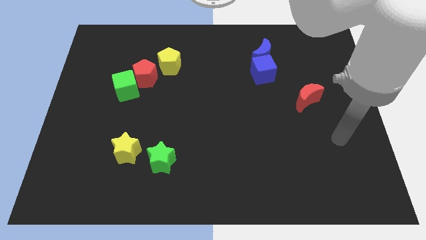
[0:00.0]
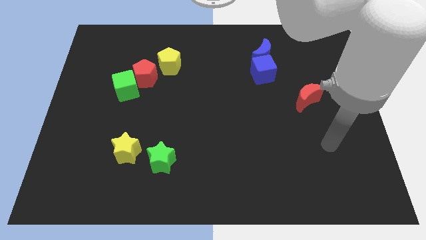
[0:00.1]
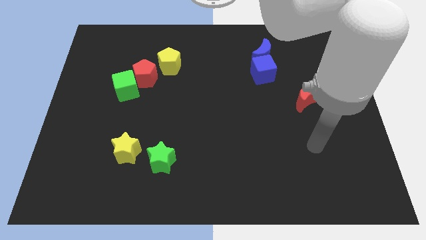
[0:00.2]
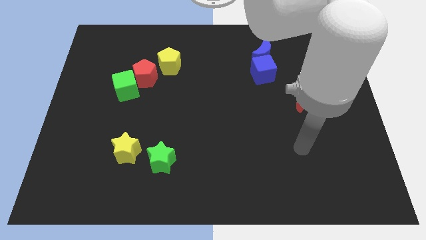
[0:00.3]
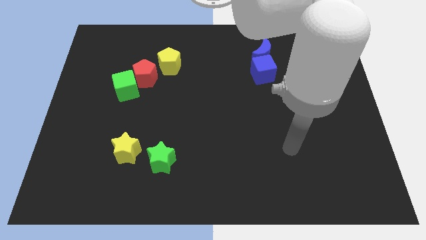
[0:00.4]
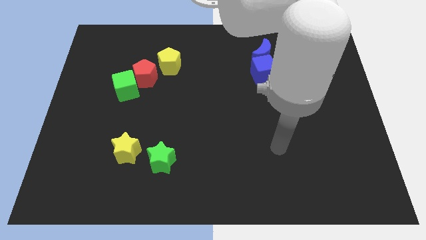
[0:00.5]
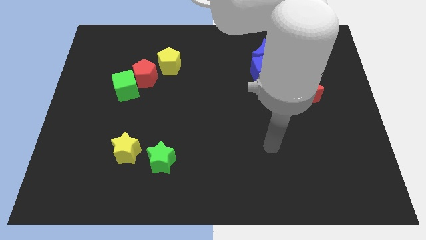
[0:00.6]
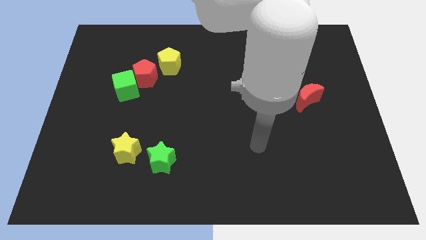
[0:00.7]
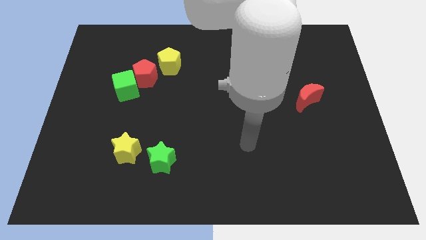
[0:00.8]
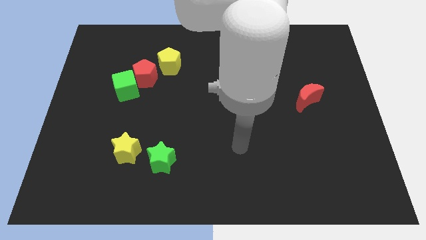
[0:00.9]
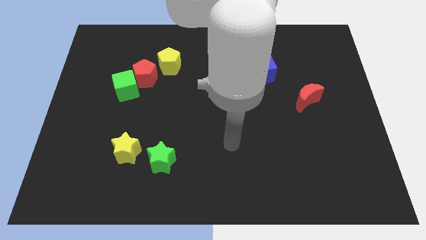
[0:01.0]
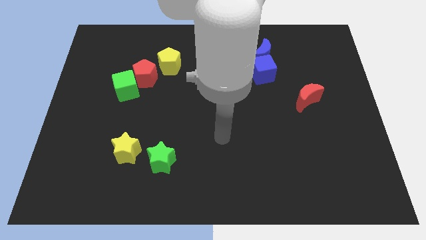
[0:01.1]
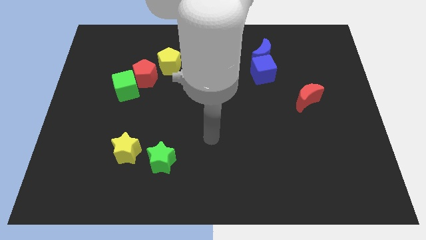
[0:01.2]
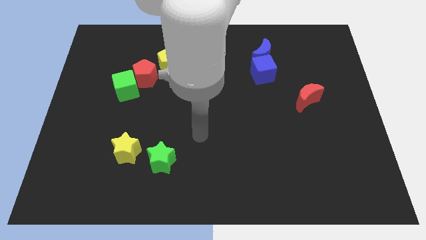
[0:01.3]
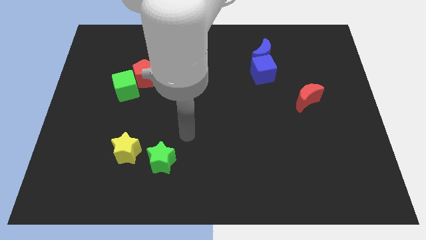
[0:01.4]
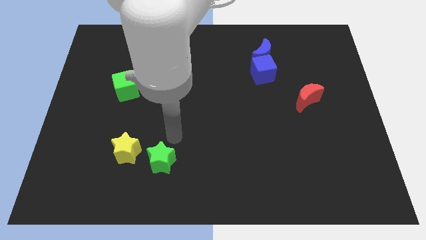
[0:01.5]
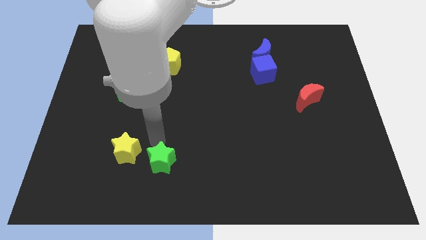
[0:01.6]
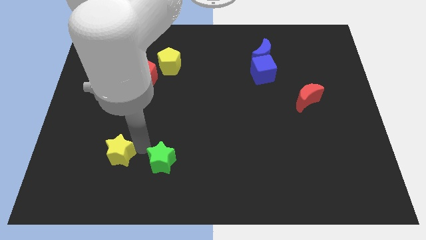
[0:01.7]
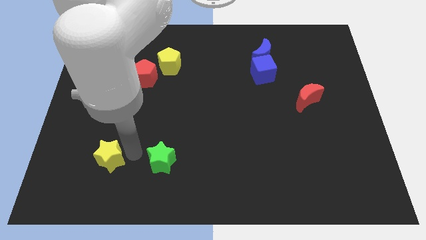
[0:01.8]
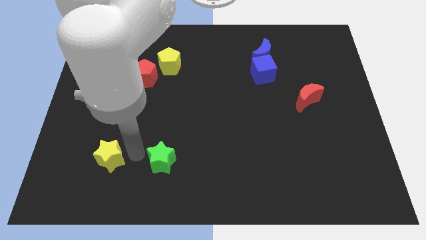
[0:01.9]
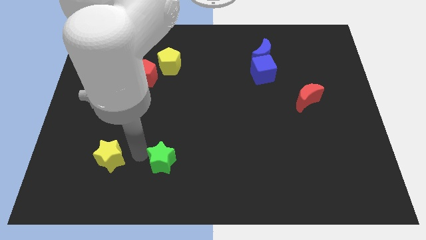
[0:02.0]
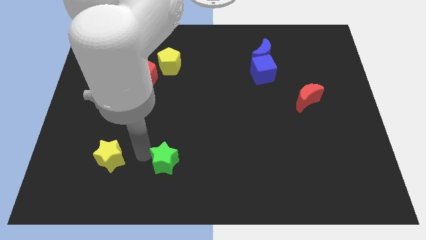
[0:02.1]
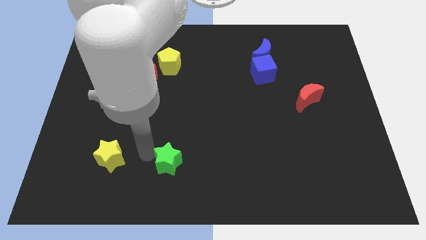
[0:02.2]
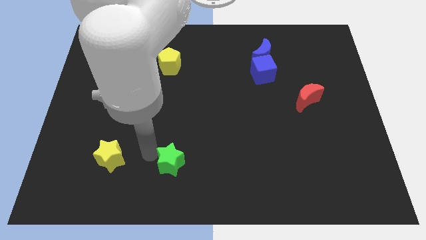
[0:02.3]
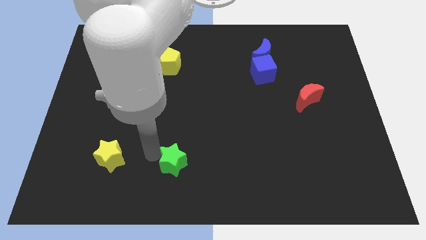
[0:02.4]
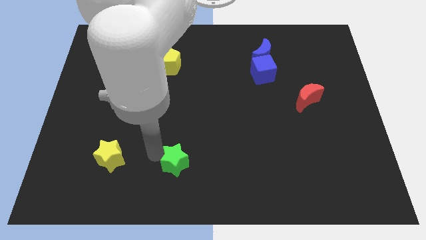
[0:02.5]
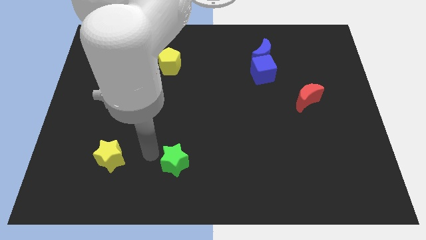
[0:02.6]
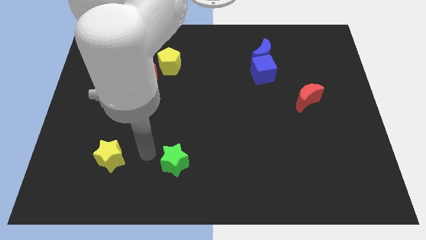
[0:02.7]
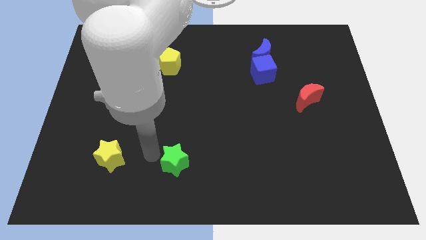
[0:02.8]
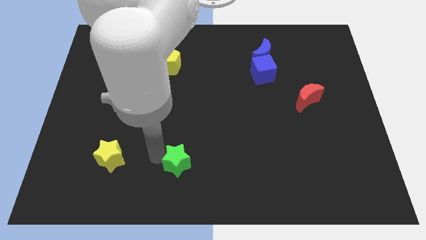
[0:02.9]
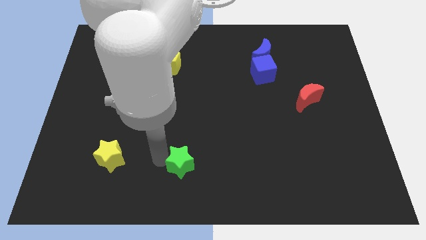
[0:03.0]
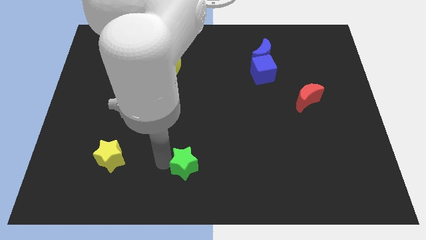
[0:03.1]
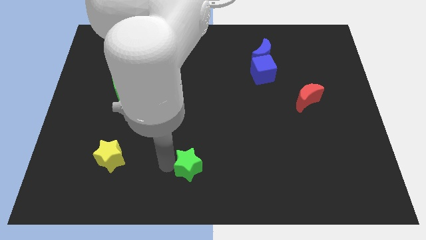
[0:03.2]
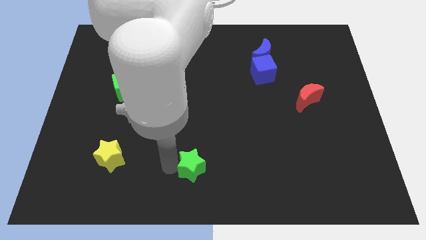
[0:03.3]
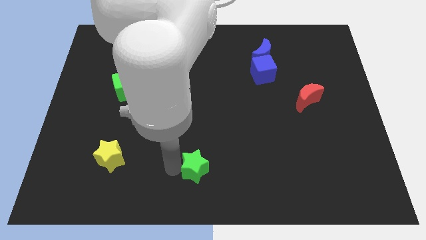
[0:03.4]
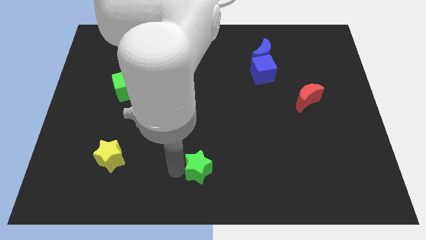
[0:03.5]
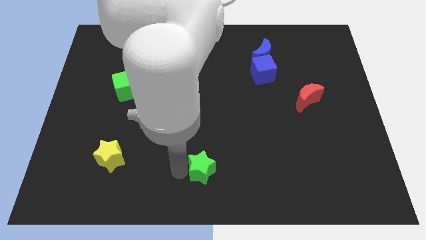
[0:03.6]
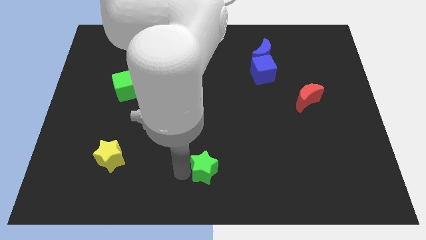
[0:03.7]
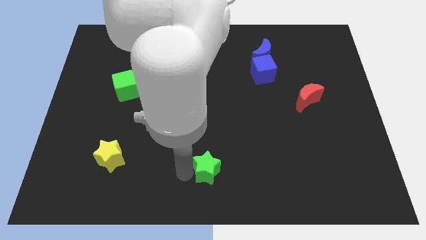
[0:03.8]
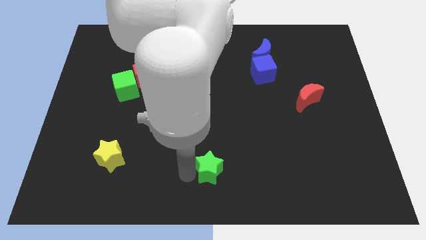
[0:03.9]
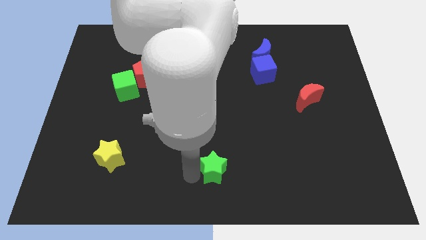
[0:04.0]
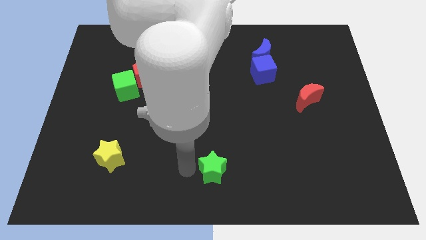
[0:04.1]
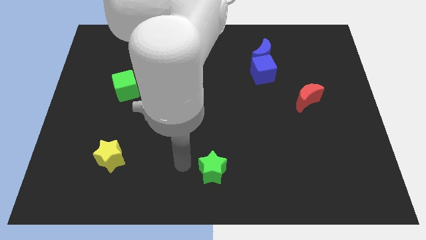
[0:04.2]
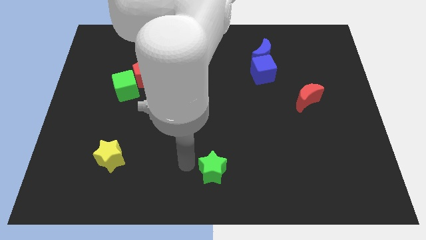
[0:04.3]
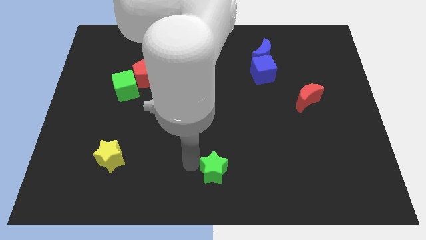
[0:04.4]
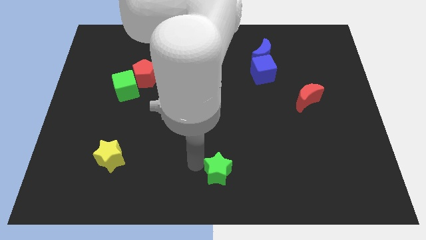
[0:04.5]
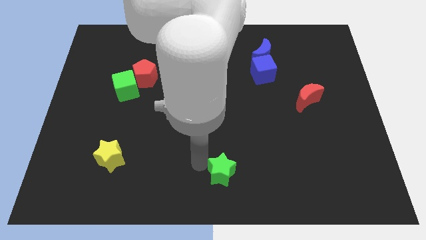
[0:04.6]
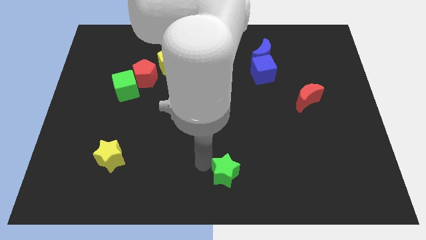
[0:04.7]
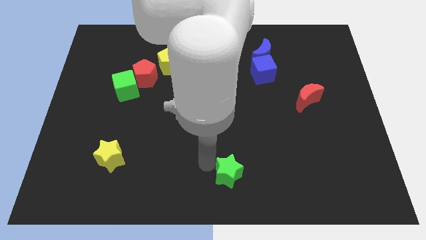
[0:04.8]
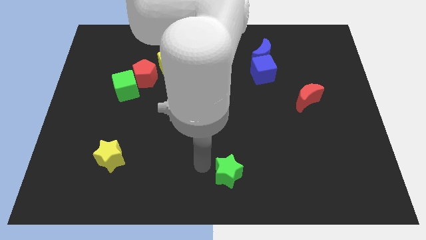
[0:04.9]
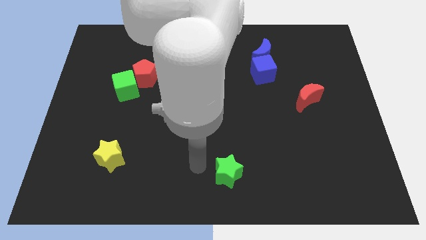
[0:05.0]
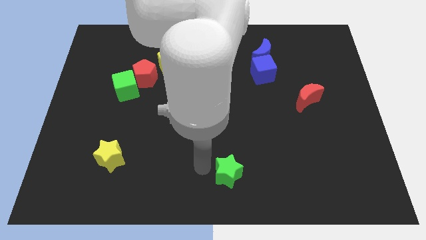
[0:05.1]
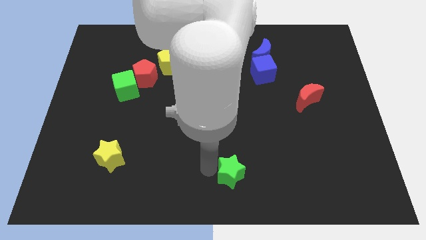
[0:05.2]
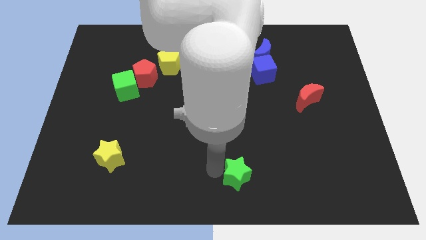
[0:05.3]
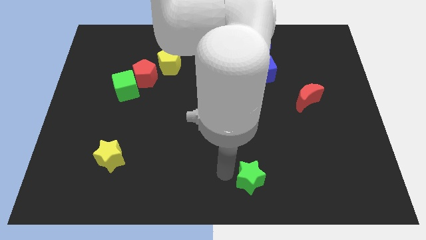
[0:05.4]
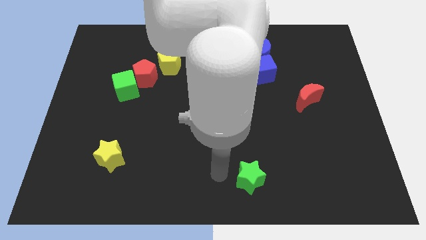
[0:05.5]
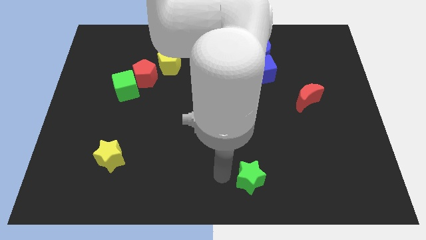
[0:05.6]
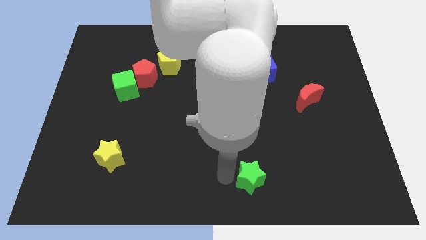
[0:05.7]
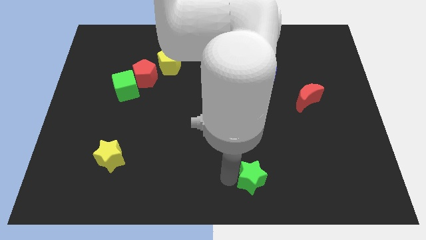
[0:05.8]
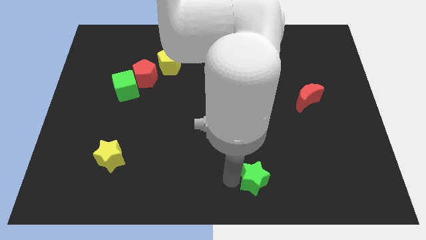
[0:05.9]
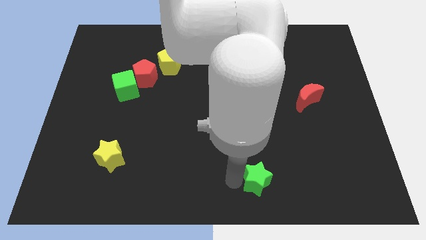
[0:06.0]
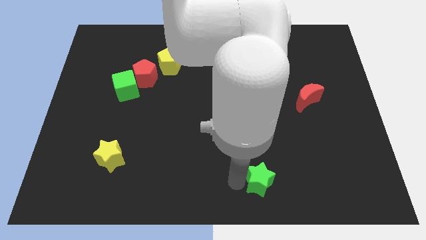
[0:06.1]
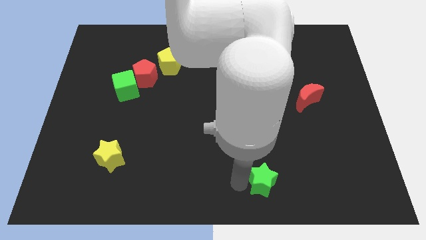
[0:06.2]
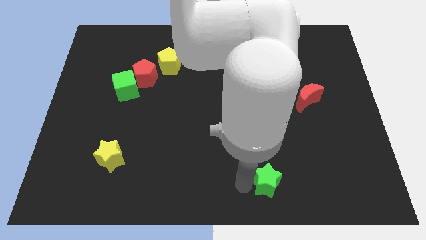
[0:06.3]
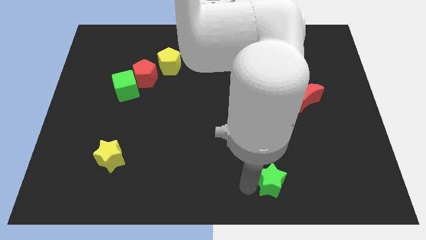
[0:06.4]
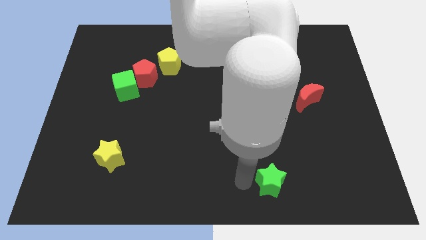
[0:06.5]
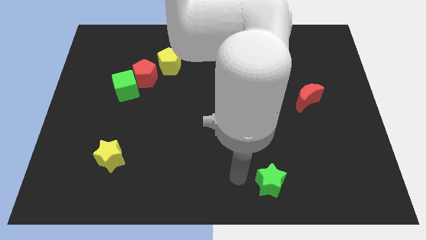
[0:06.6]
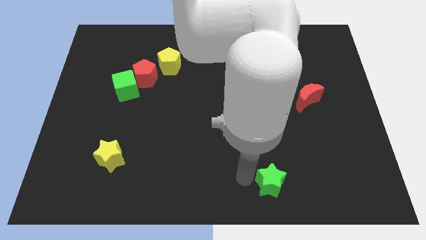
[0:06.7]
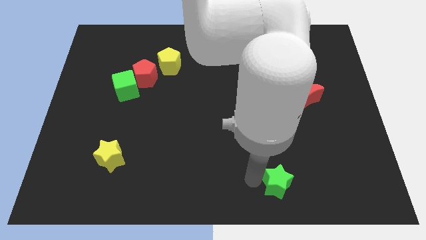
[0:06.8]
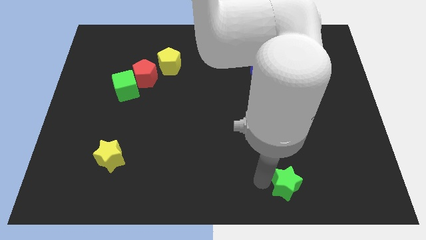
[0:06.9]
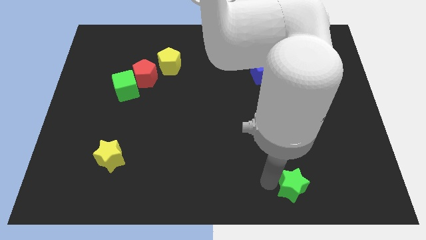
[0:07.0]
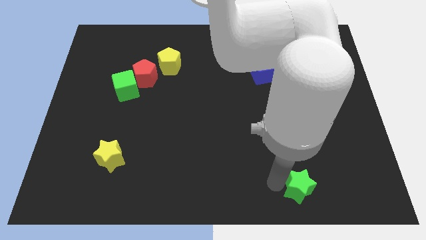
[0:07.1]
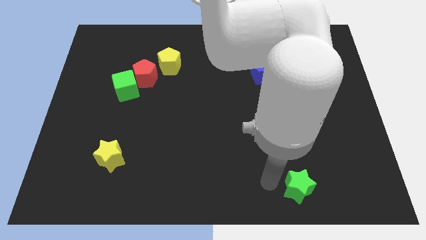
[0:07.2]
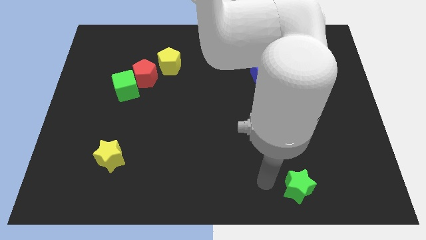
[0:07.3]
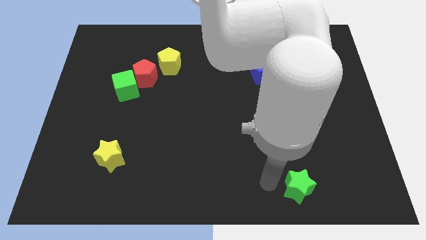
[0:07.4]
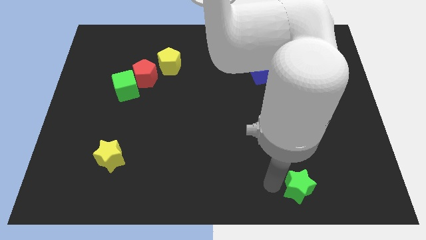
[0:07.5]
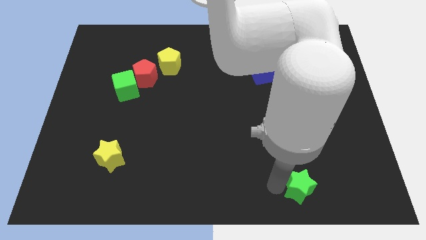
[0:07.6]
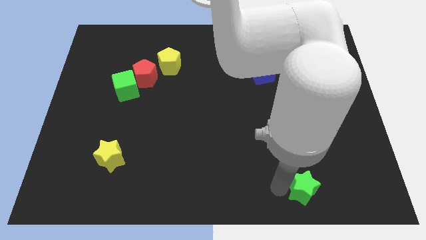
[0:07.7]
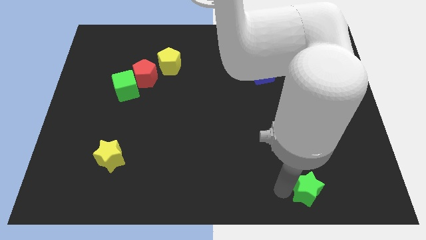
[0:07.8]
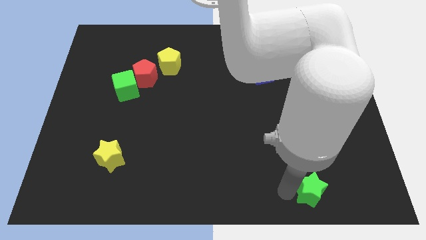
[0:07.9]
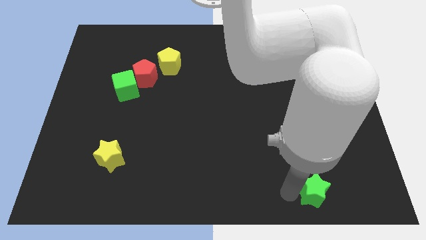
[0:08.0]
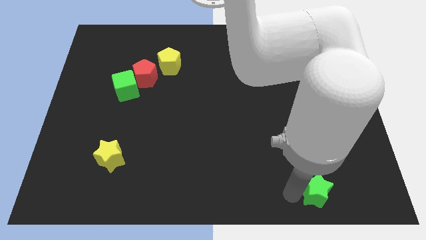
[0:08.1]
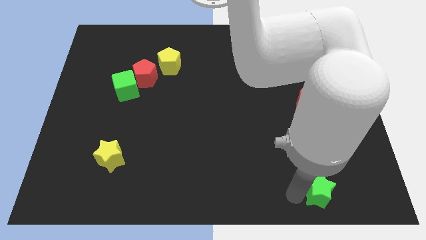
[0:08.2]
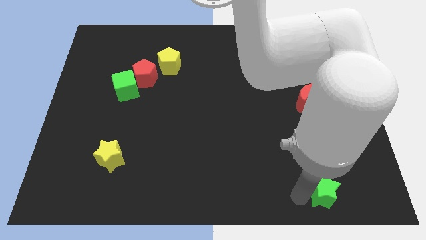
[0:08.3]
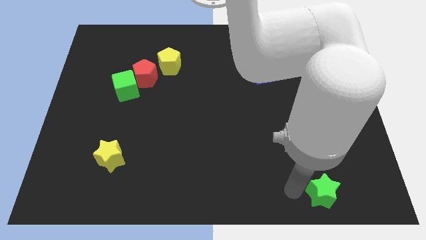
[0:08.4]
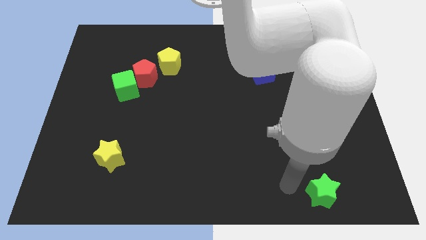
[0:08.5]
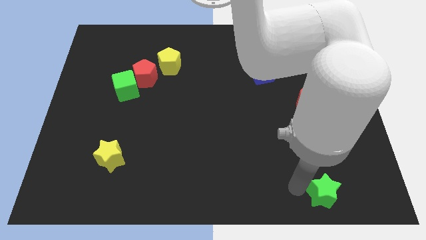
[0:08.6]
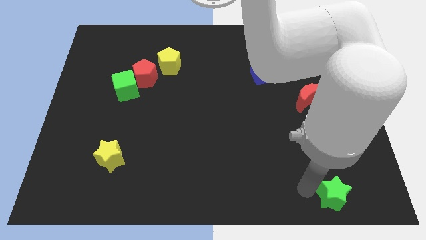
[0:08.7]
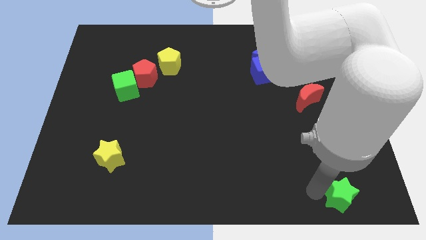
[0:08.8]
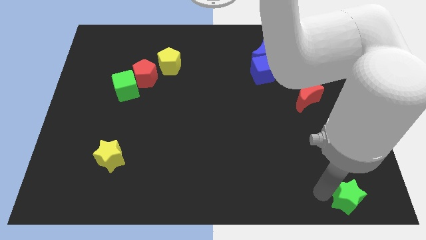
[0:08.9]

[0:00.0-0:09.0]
slide the green star to the bottom right corner
